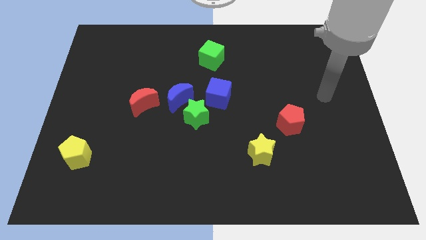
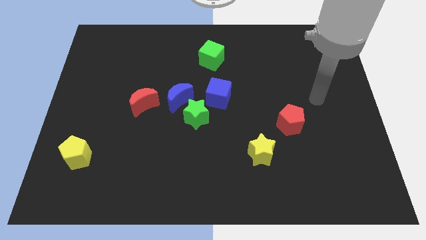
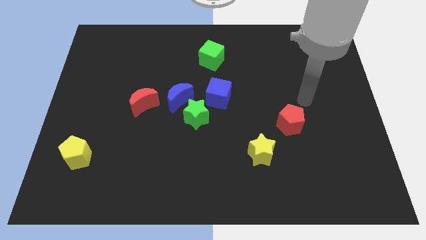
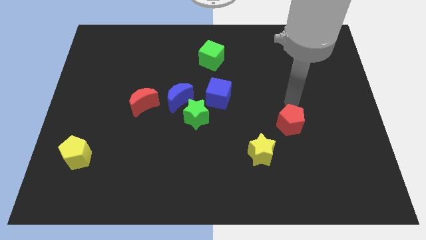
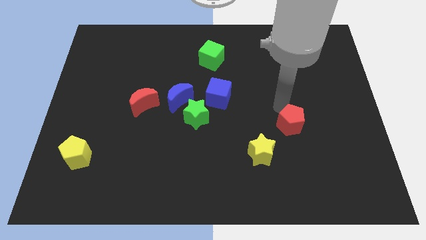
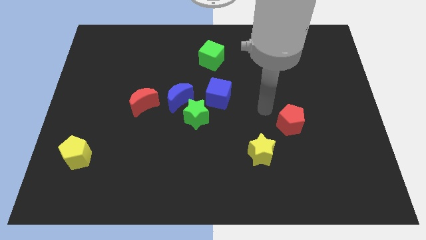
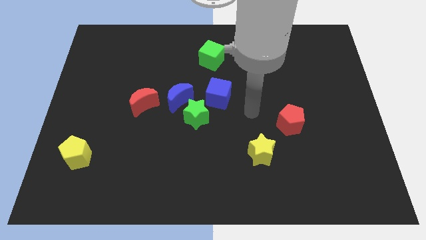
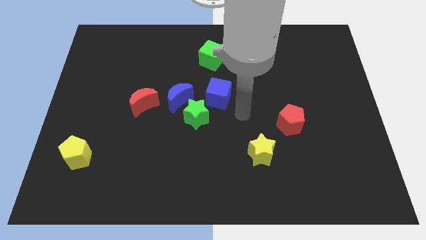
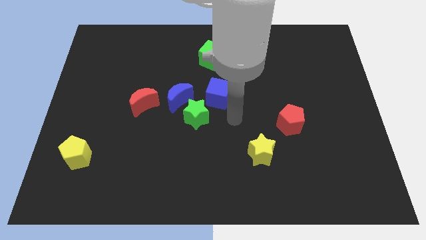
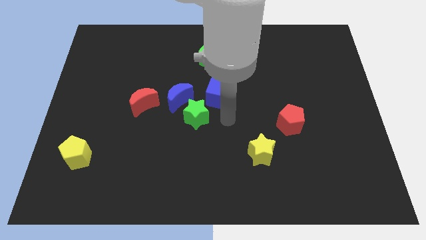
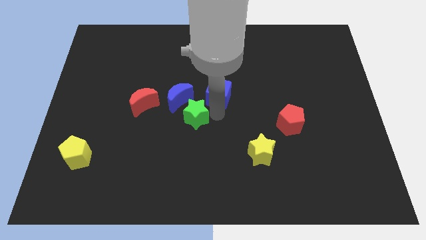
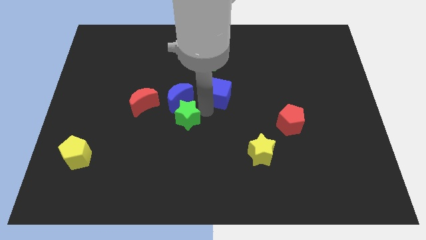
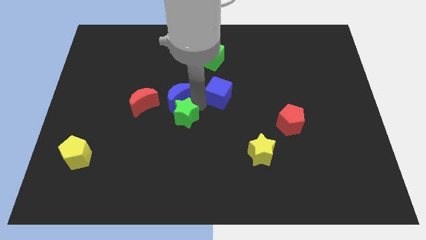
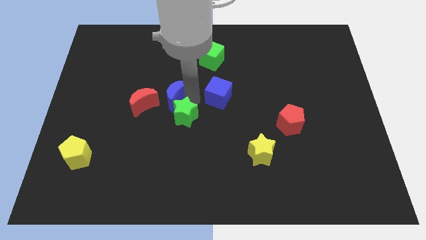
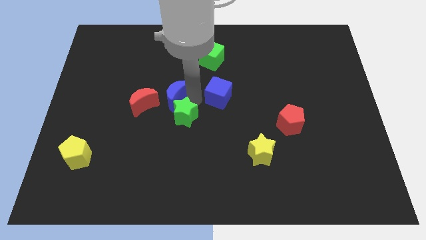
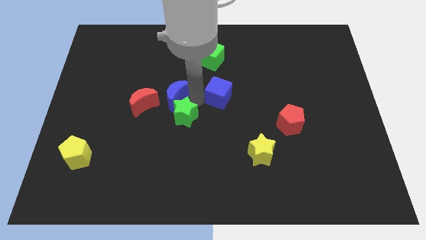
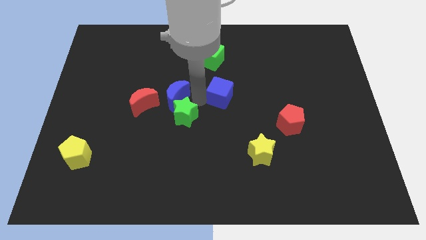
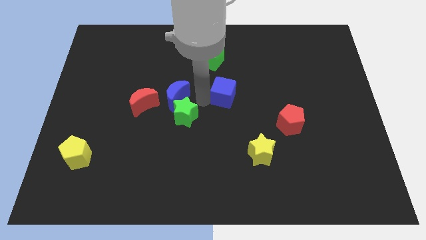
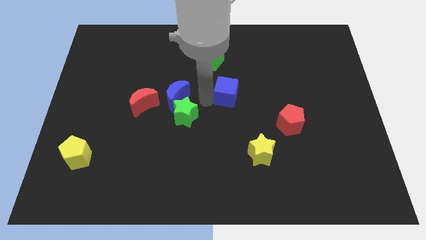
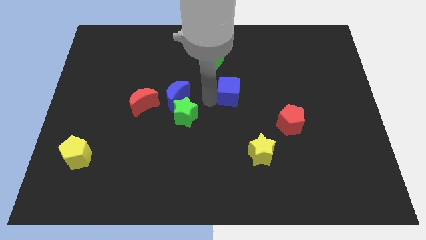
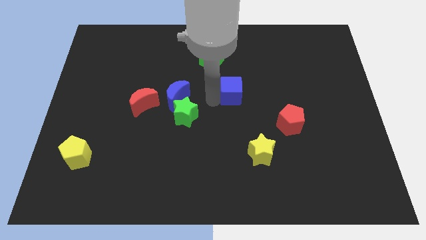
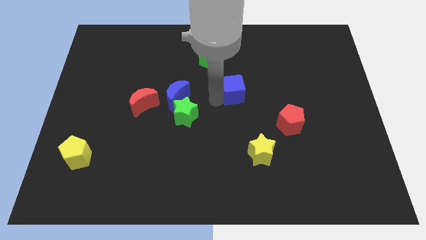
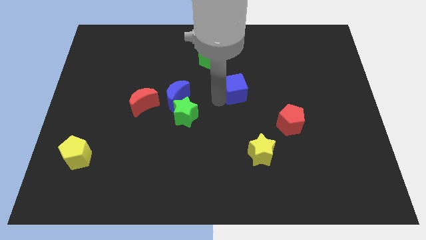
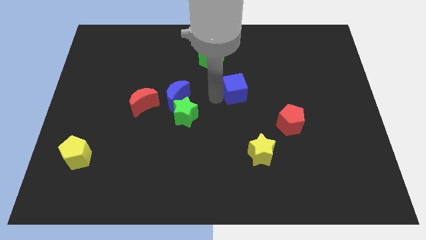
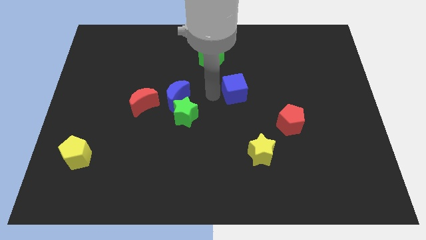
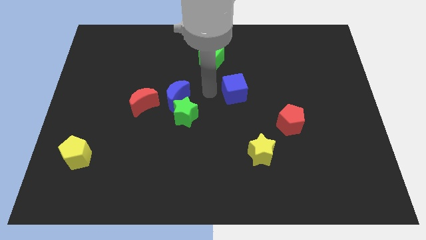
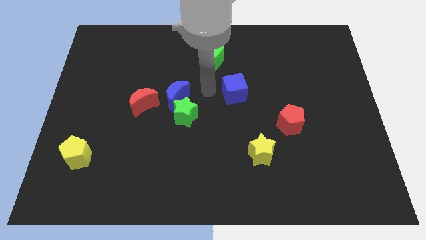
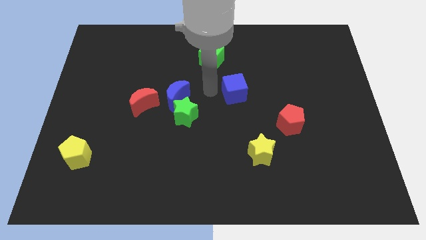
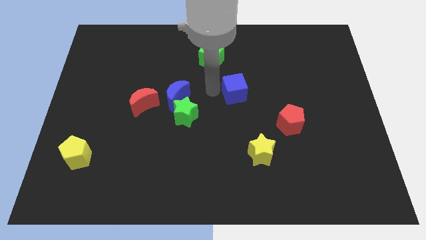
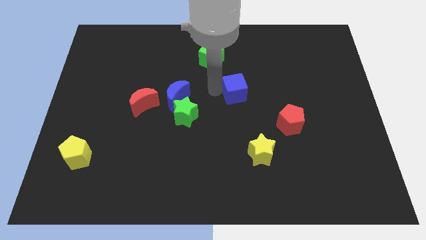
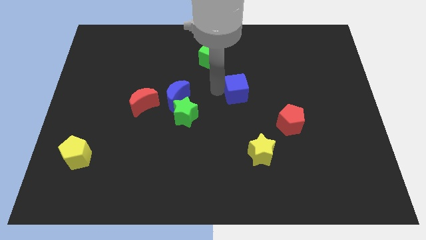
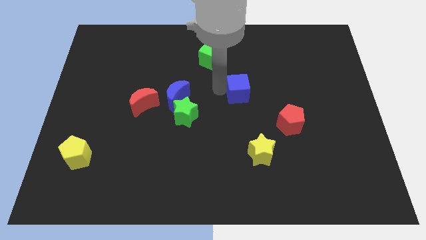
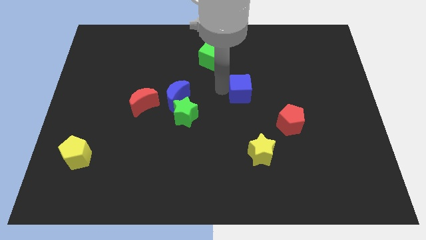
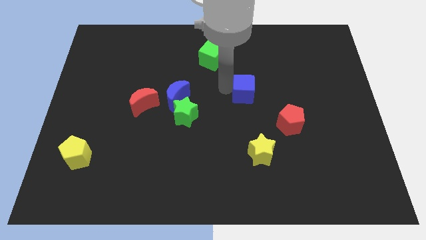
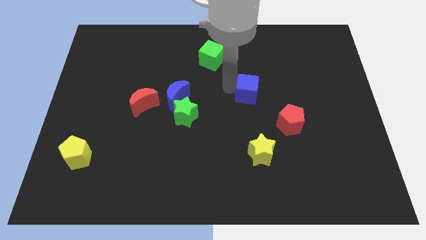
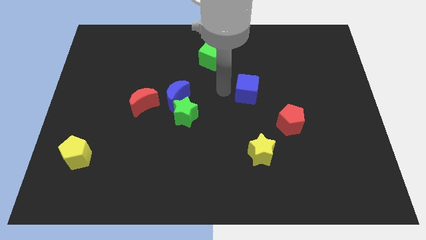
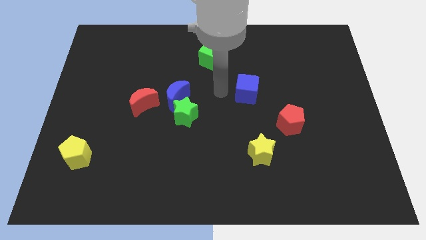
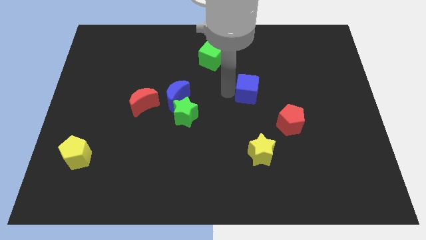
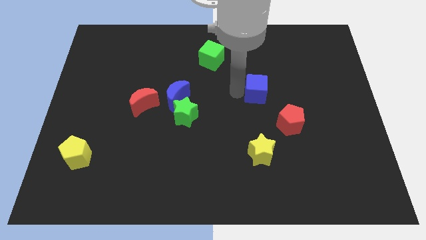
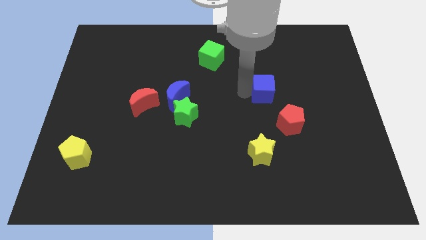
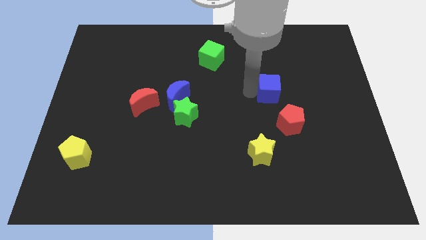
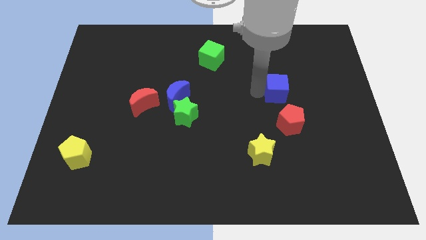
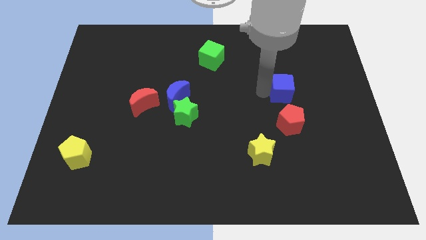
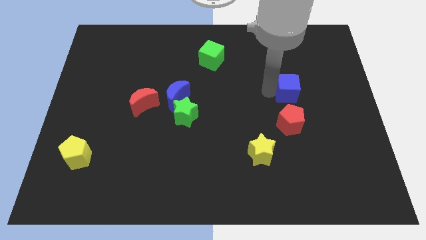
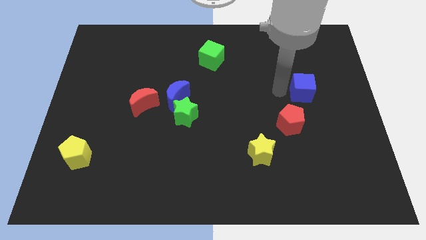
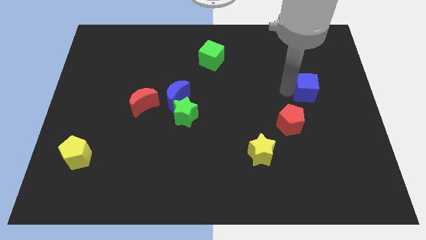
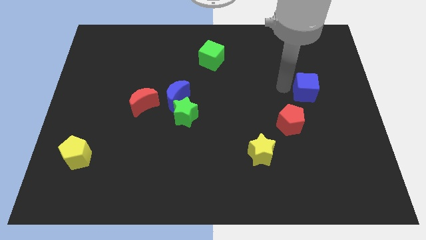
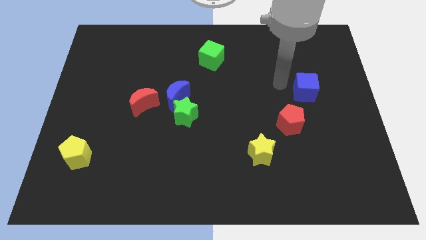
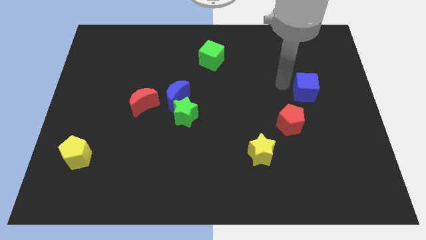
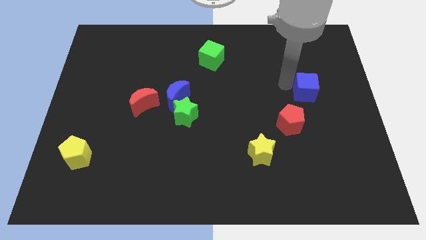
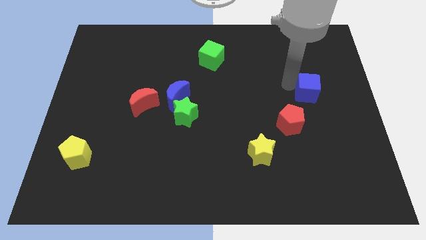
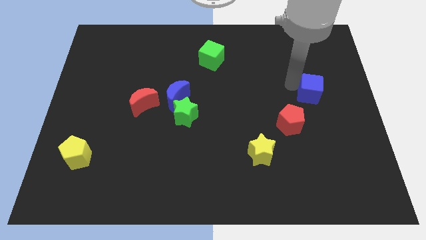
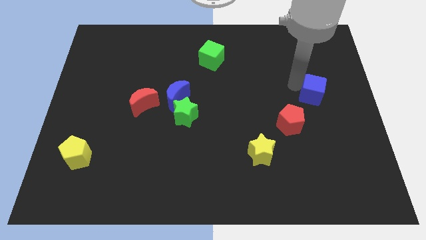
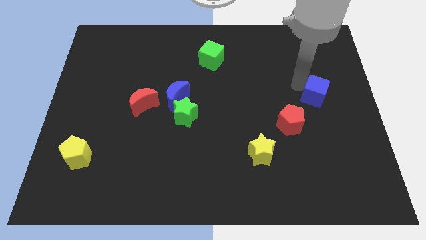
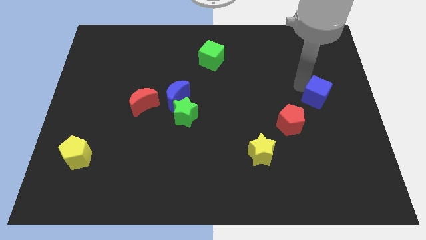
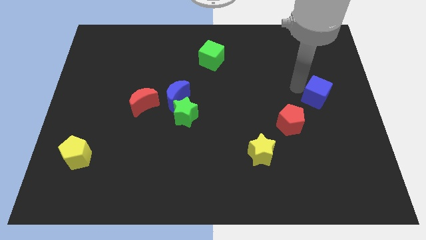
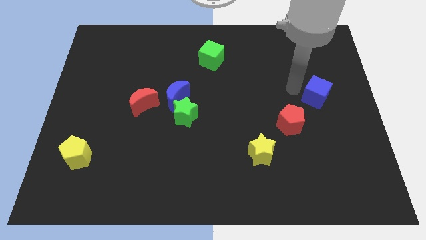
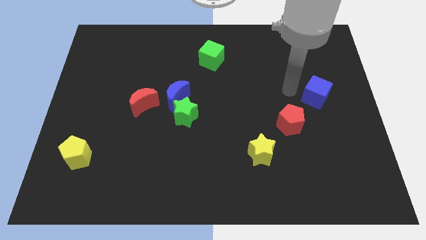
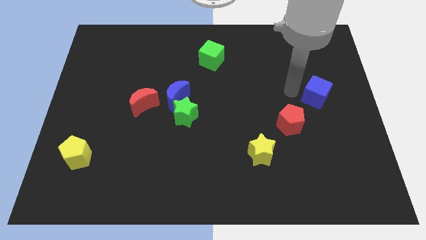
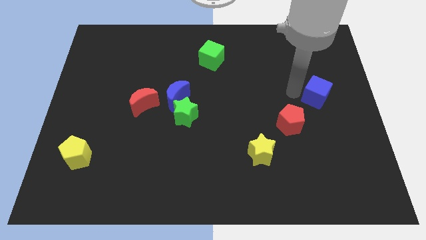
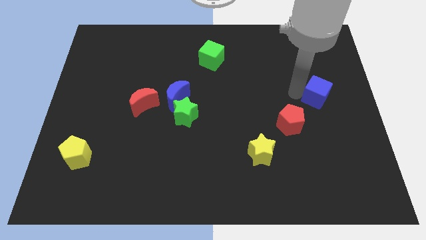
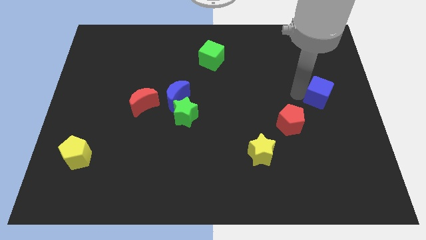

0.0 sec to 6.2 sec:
move the blue cube to the center right
